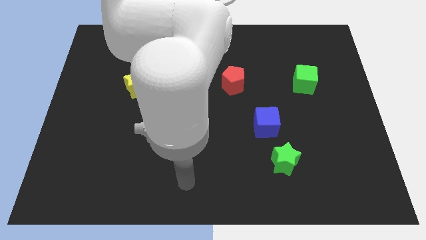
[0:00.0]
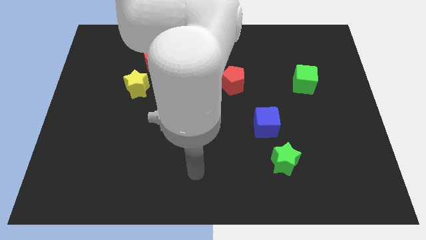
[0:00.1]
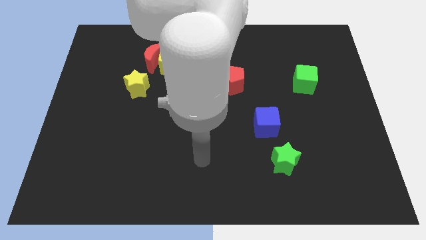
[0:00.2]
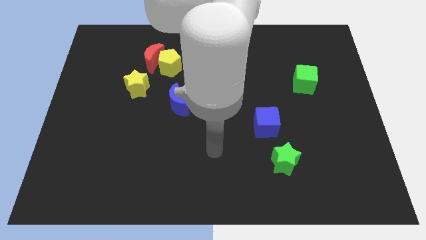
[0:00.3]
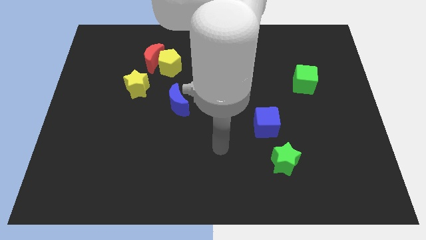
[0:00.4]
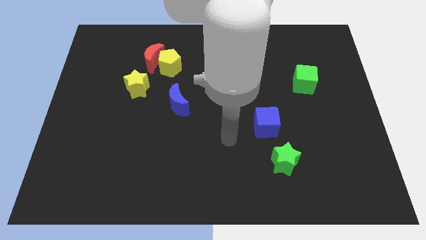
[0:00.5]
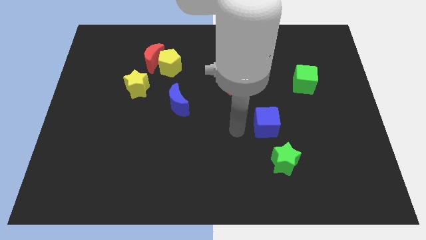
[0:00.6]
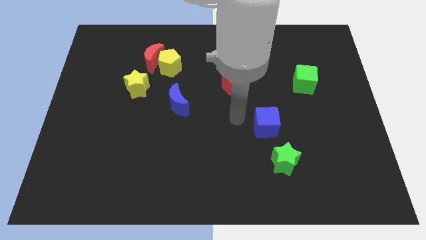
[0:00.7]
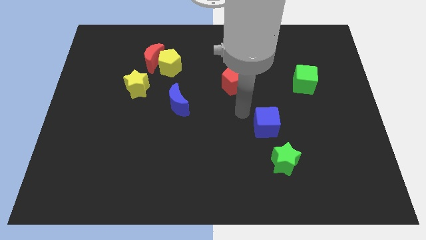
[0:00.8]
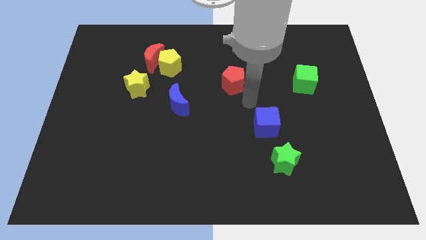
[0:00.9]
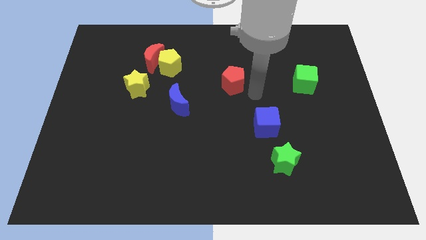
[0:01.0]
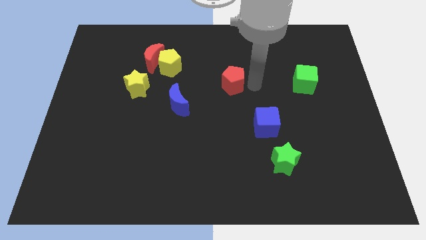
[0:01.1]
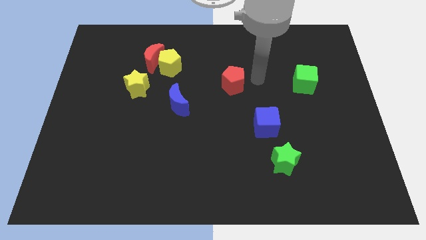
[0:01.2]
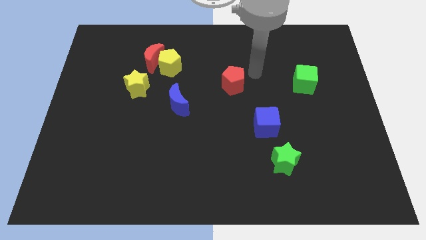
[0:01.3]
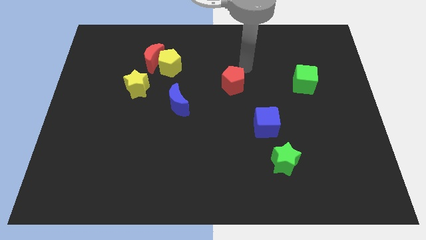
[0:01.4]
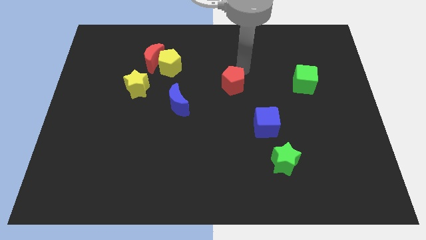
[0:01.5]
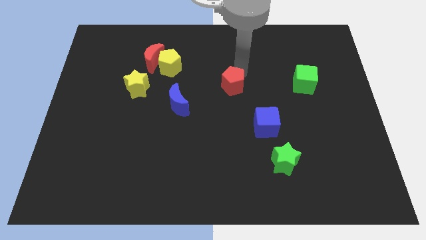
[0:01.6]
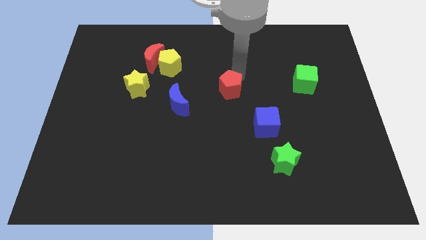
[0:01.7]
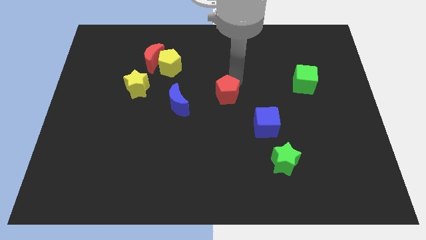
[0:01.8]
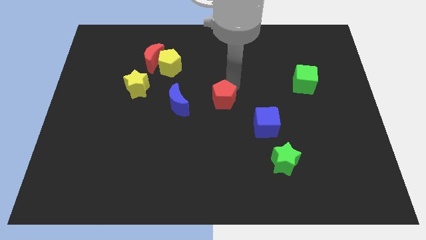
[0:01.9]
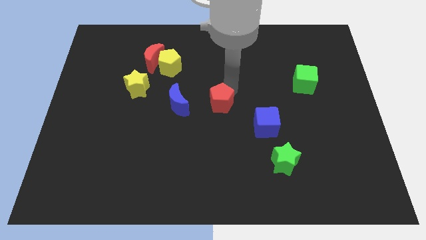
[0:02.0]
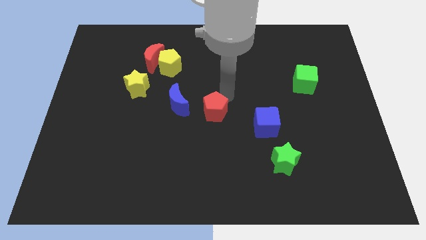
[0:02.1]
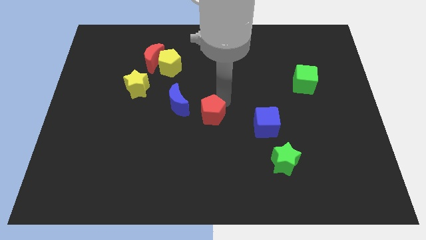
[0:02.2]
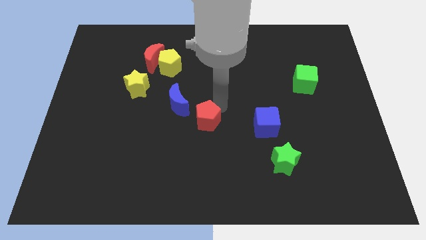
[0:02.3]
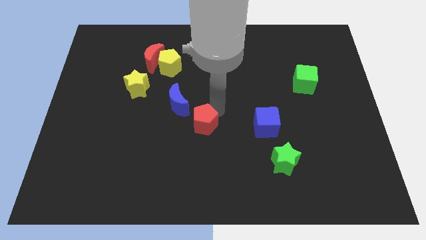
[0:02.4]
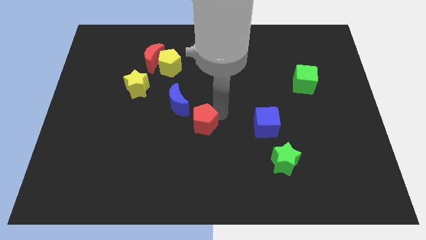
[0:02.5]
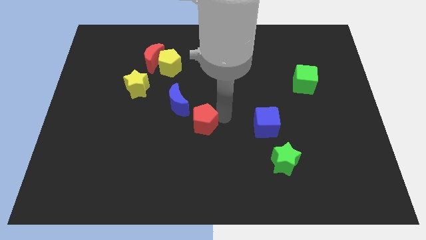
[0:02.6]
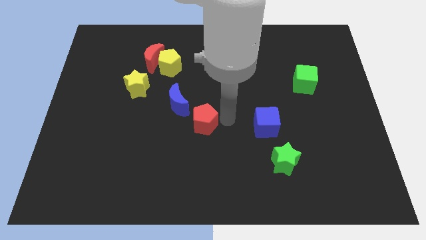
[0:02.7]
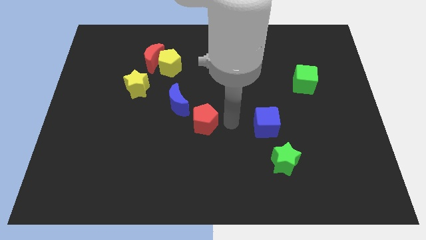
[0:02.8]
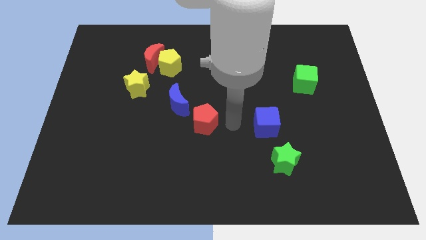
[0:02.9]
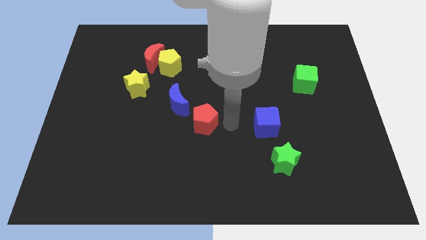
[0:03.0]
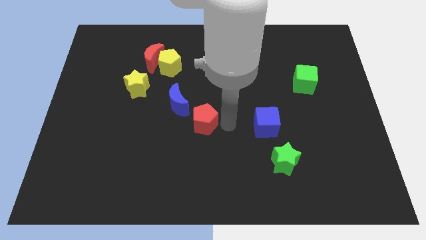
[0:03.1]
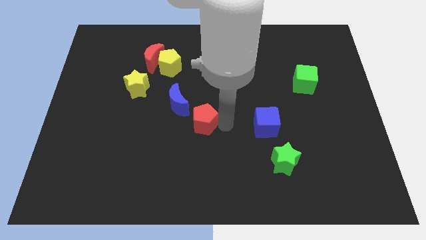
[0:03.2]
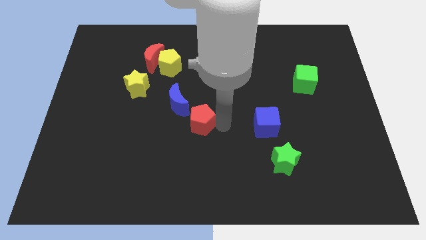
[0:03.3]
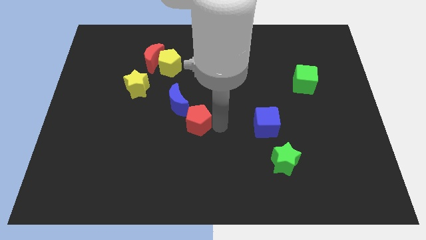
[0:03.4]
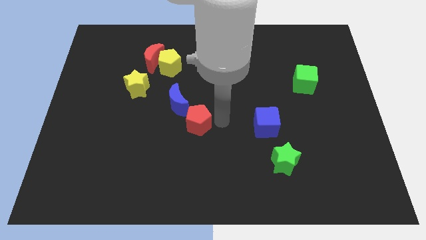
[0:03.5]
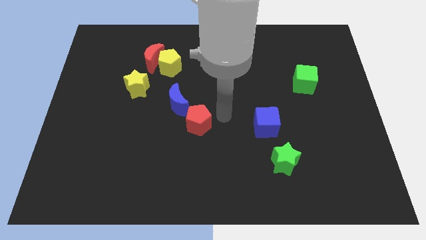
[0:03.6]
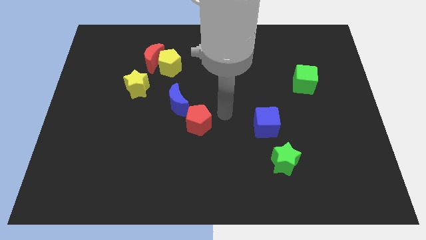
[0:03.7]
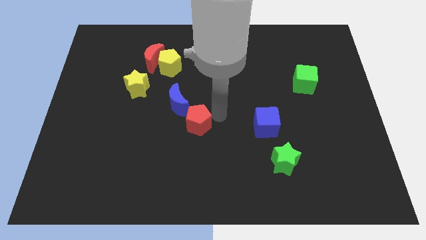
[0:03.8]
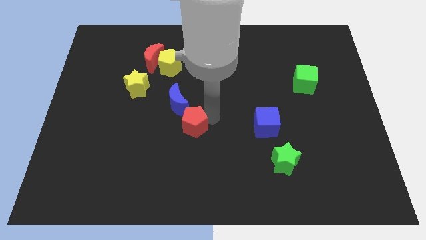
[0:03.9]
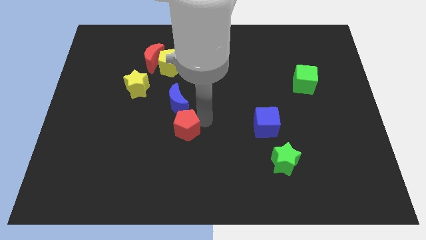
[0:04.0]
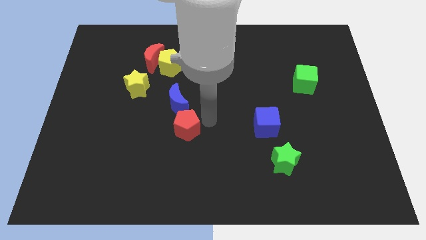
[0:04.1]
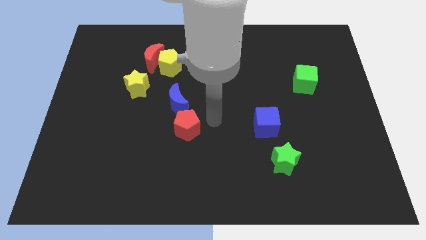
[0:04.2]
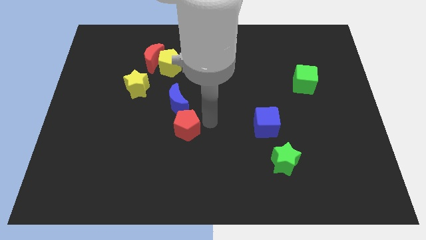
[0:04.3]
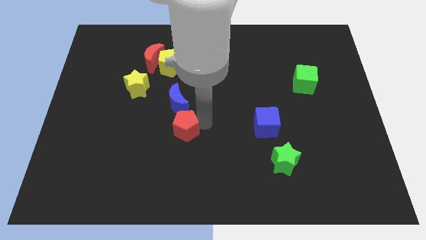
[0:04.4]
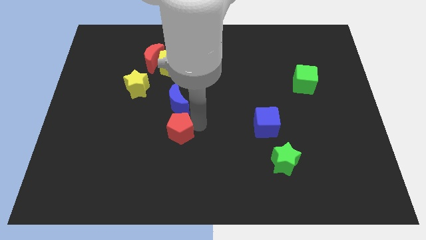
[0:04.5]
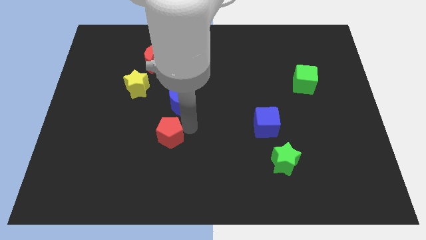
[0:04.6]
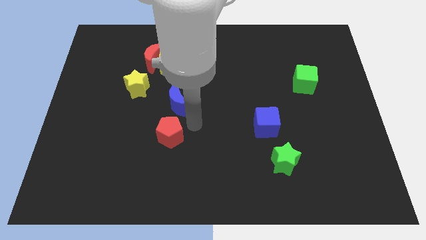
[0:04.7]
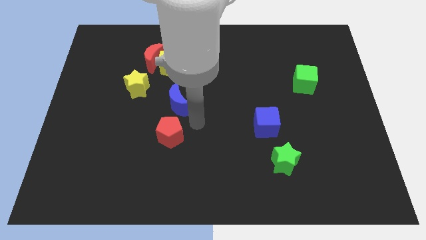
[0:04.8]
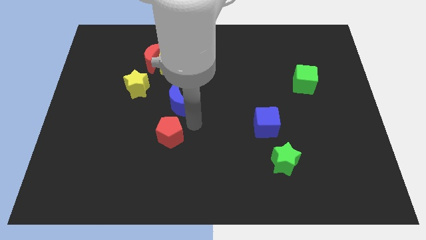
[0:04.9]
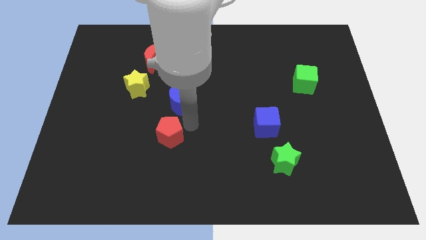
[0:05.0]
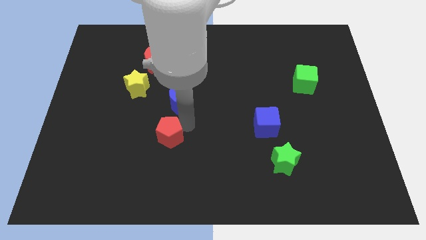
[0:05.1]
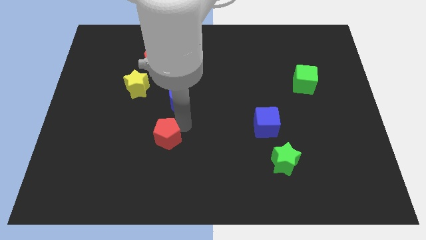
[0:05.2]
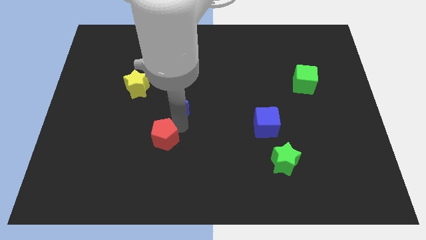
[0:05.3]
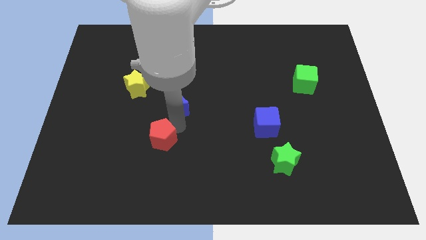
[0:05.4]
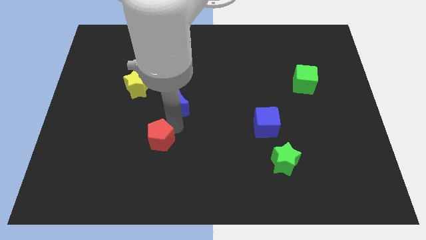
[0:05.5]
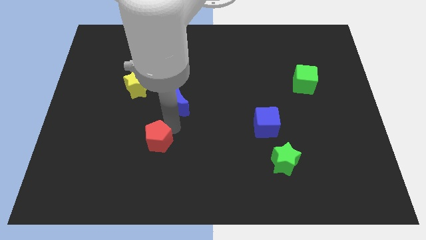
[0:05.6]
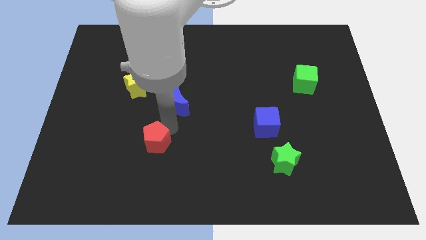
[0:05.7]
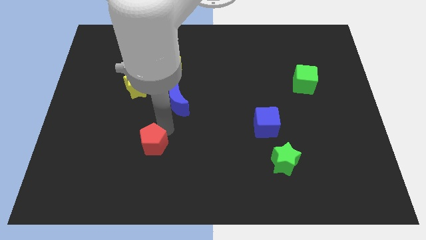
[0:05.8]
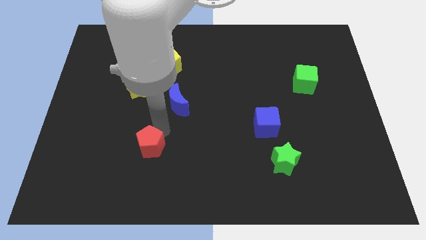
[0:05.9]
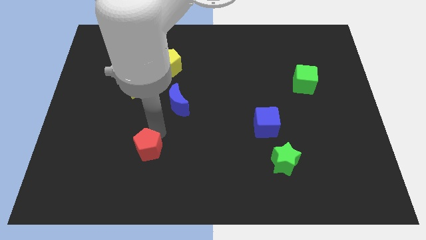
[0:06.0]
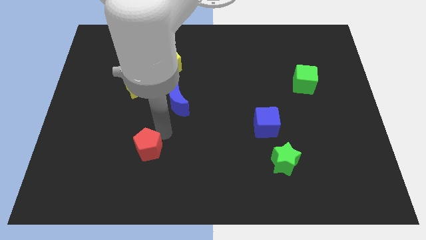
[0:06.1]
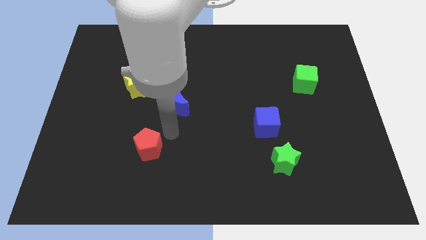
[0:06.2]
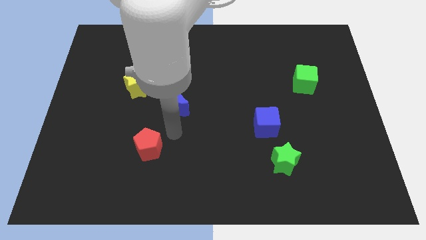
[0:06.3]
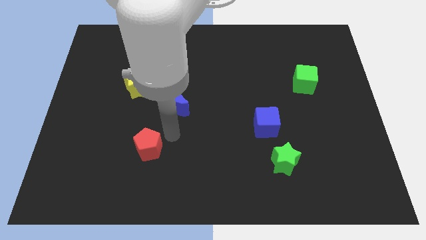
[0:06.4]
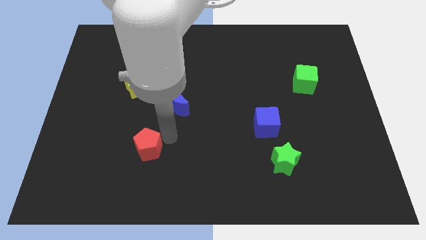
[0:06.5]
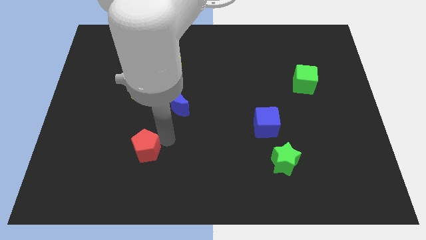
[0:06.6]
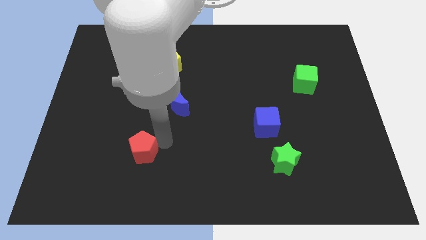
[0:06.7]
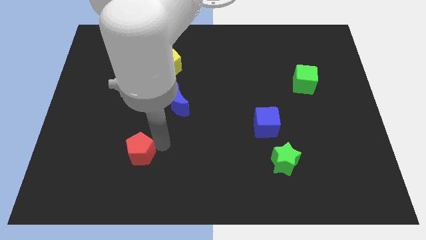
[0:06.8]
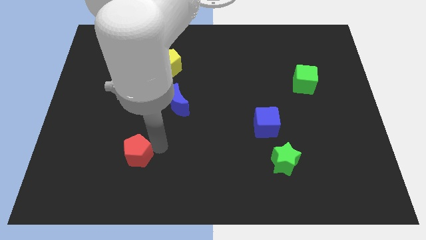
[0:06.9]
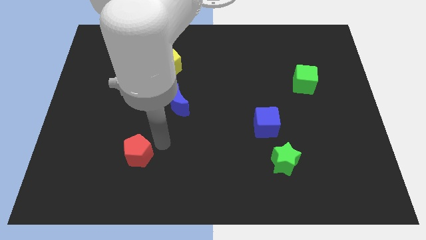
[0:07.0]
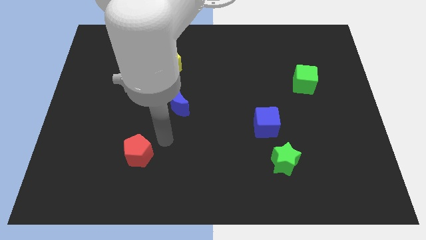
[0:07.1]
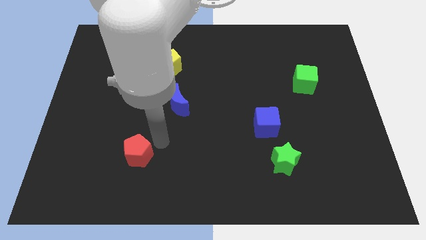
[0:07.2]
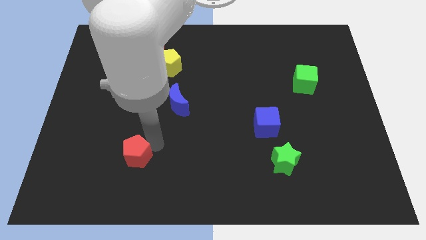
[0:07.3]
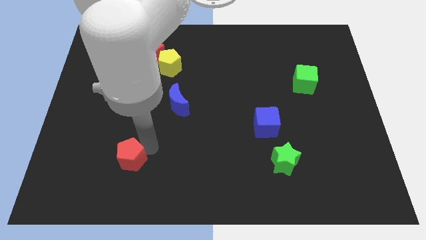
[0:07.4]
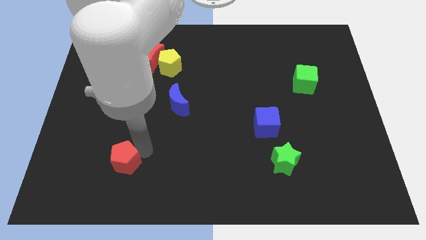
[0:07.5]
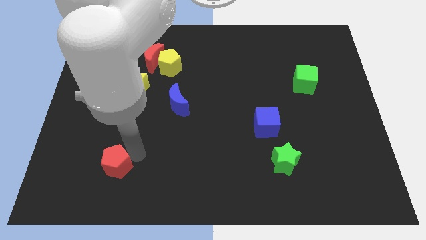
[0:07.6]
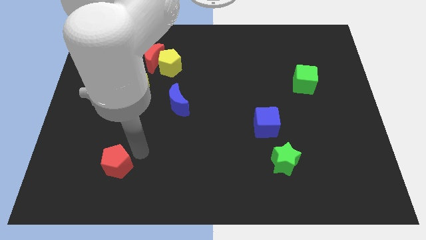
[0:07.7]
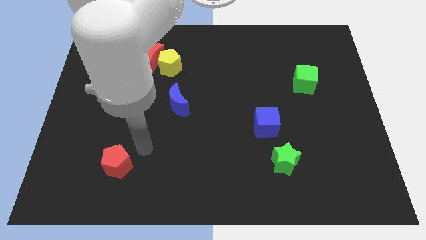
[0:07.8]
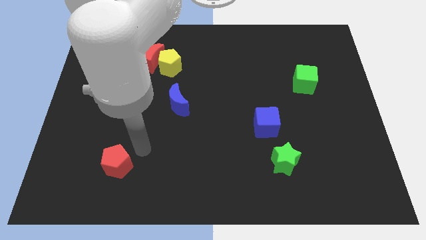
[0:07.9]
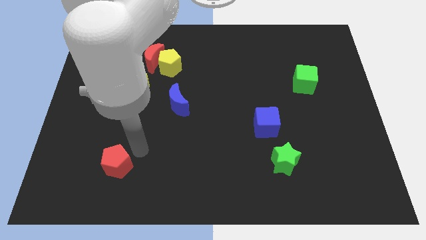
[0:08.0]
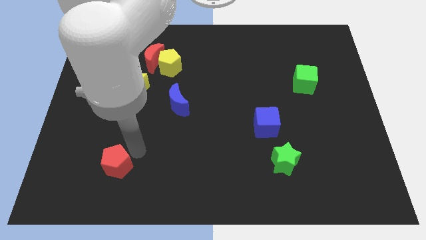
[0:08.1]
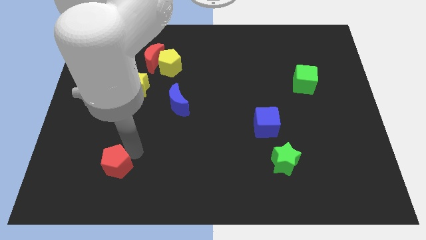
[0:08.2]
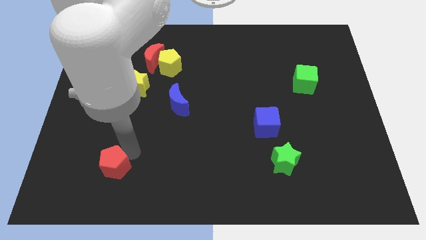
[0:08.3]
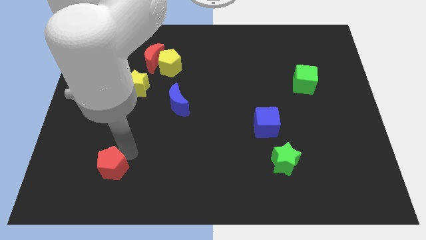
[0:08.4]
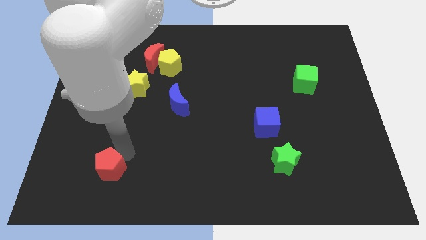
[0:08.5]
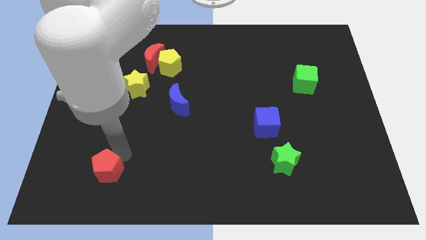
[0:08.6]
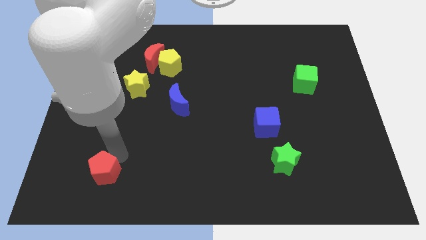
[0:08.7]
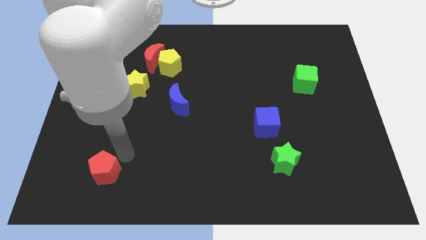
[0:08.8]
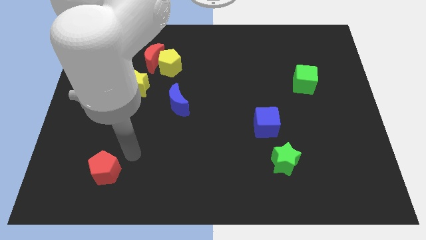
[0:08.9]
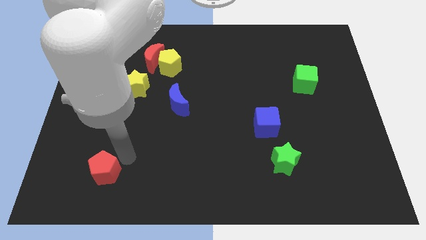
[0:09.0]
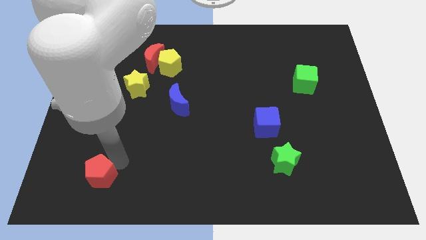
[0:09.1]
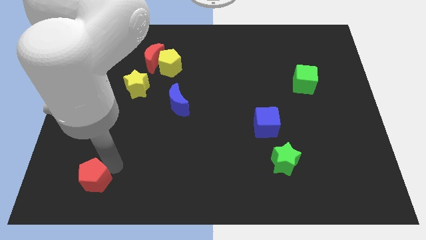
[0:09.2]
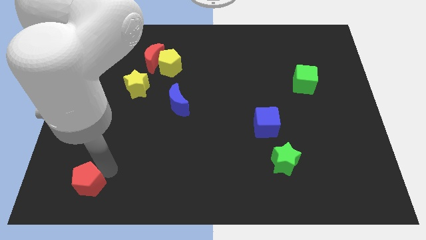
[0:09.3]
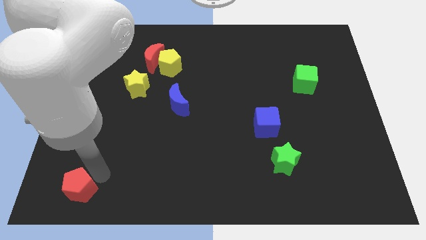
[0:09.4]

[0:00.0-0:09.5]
slide the red pentagon to the bottom left of the board
